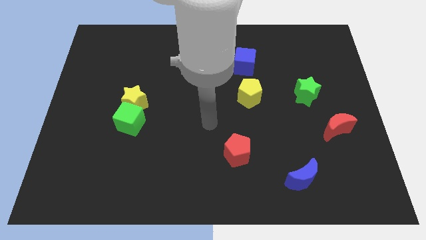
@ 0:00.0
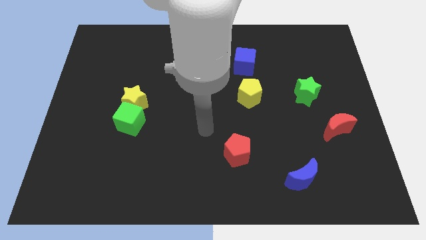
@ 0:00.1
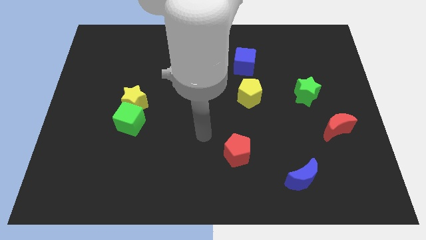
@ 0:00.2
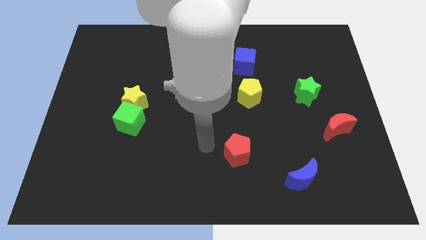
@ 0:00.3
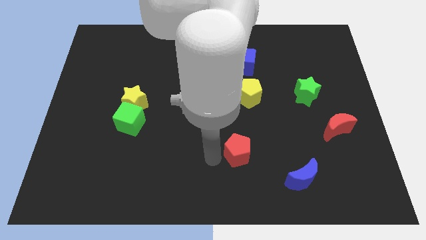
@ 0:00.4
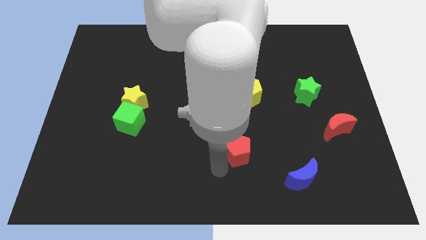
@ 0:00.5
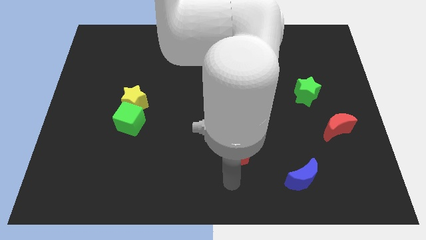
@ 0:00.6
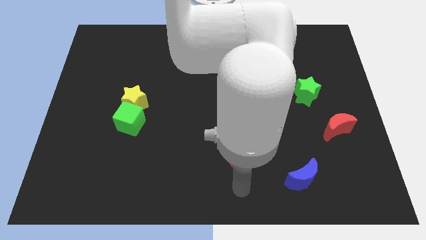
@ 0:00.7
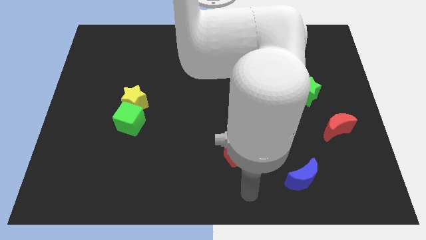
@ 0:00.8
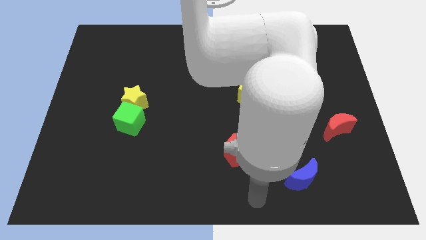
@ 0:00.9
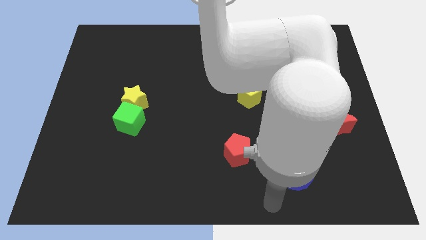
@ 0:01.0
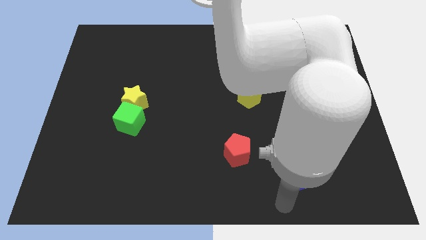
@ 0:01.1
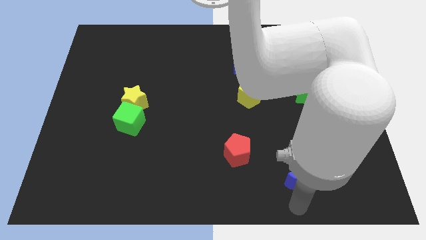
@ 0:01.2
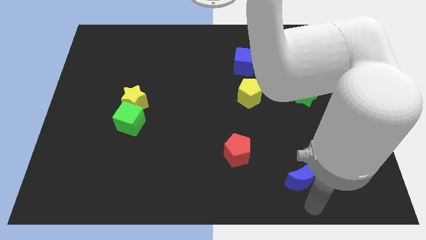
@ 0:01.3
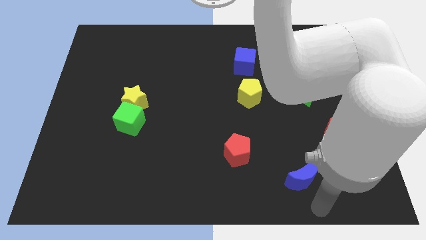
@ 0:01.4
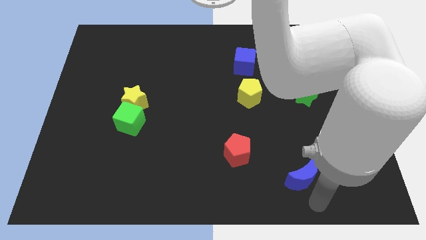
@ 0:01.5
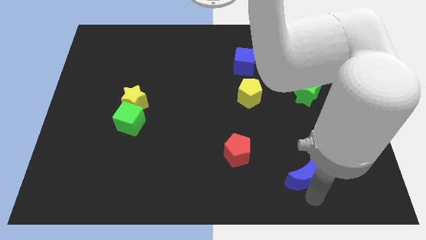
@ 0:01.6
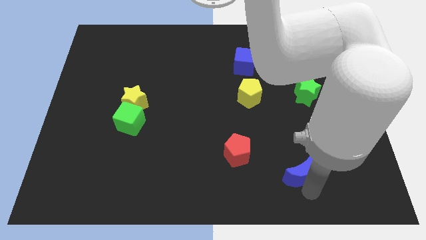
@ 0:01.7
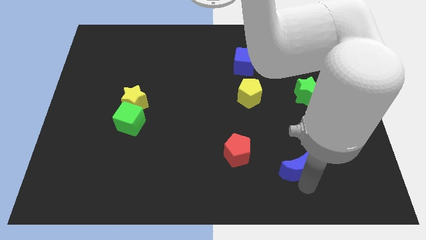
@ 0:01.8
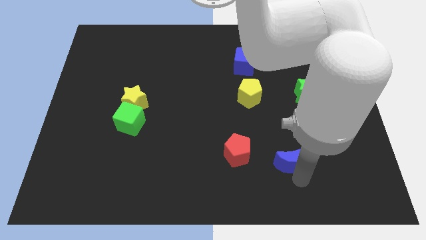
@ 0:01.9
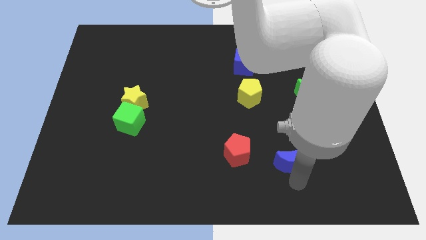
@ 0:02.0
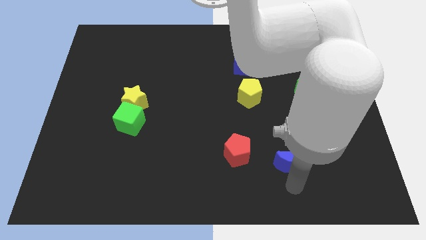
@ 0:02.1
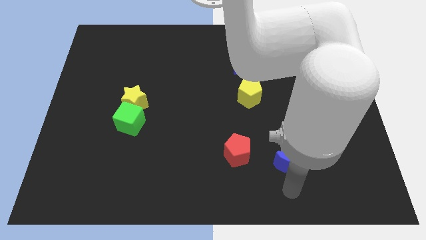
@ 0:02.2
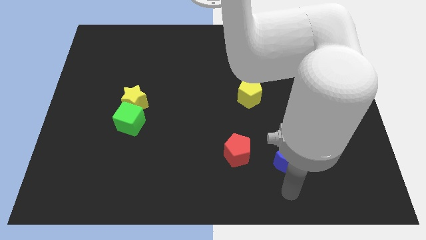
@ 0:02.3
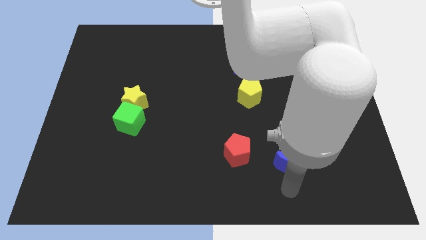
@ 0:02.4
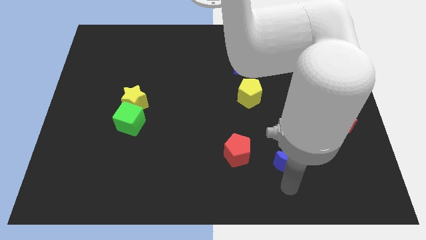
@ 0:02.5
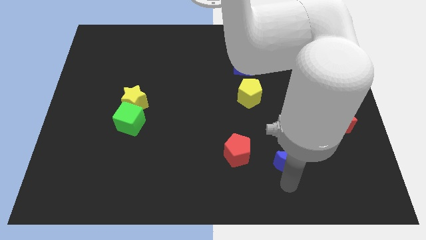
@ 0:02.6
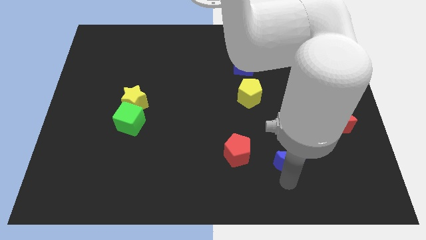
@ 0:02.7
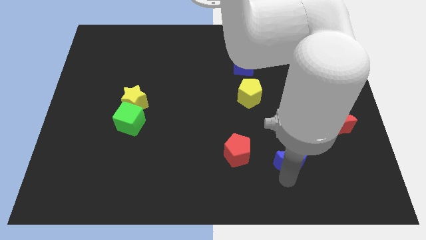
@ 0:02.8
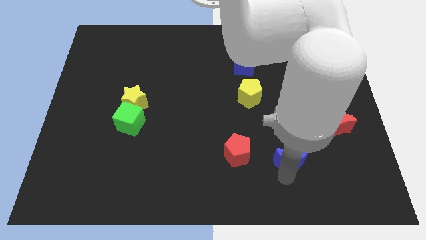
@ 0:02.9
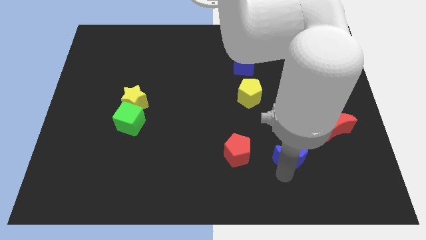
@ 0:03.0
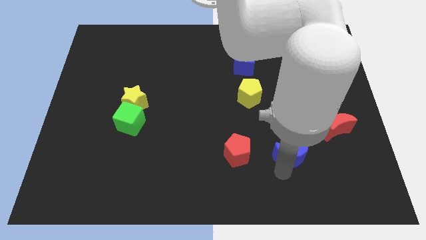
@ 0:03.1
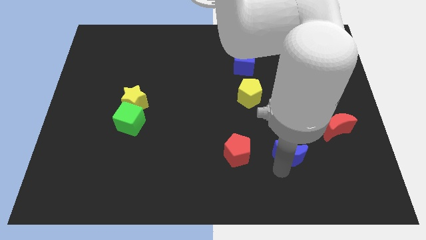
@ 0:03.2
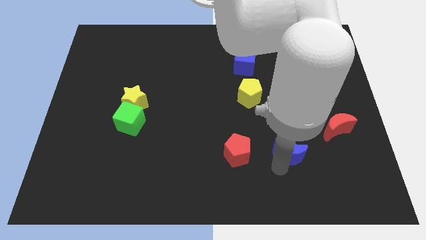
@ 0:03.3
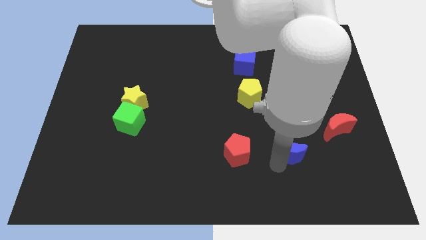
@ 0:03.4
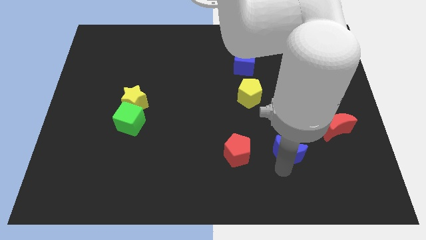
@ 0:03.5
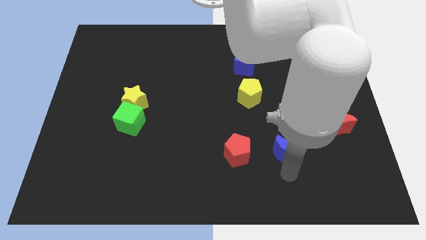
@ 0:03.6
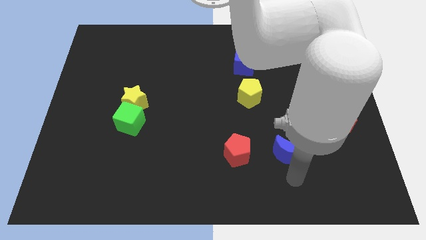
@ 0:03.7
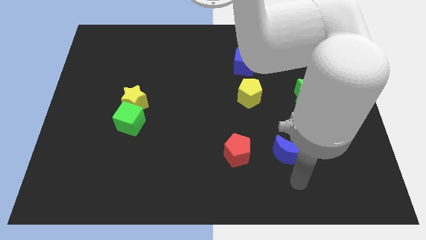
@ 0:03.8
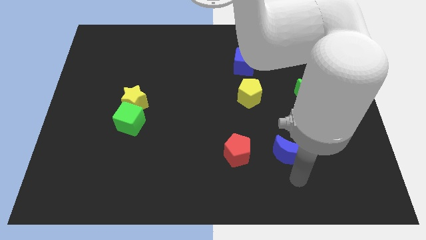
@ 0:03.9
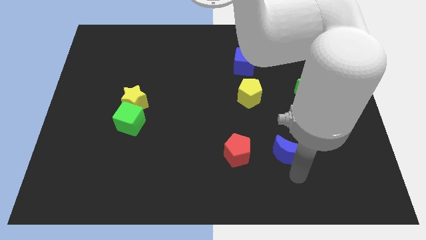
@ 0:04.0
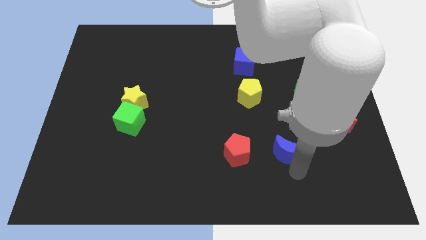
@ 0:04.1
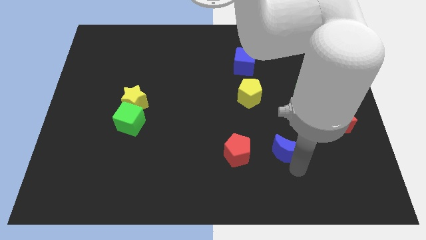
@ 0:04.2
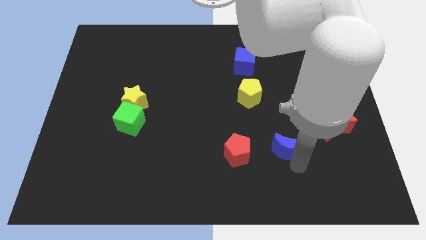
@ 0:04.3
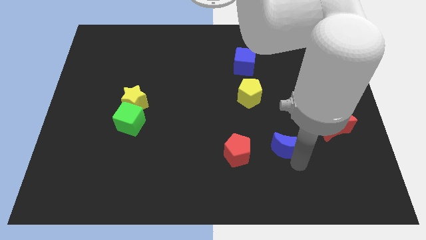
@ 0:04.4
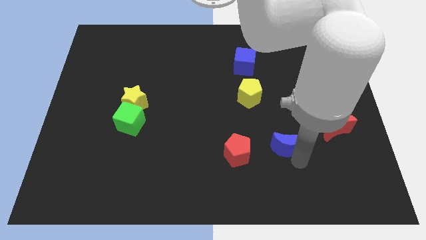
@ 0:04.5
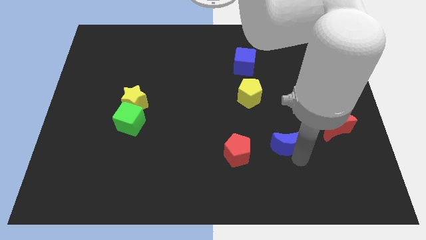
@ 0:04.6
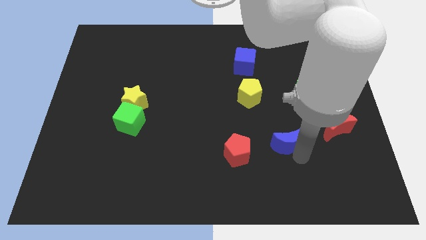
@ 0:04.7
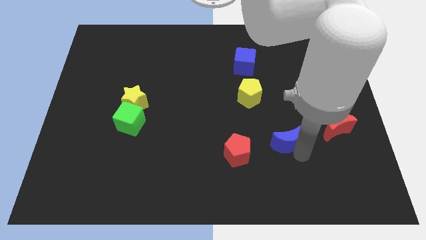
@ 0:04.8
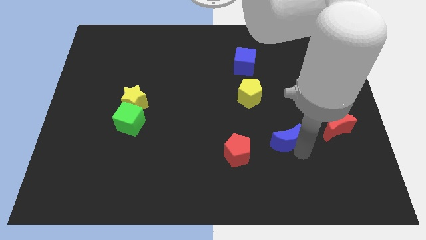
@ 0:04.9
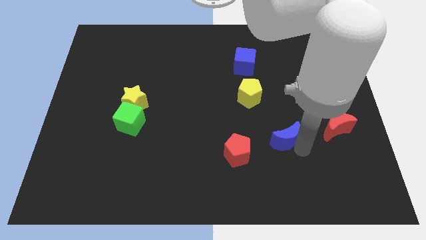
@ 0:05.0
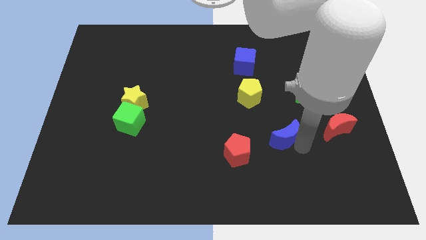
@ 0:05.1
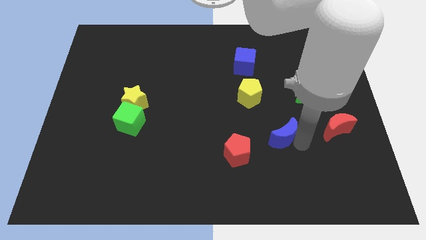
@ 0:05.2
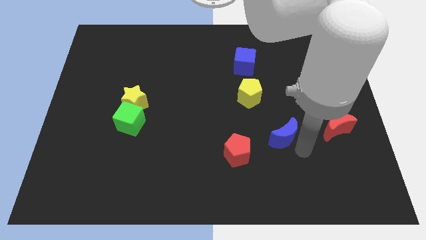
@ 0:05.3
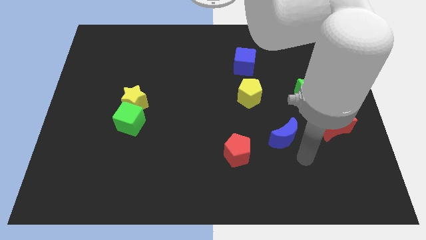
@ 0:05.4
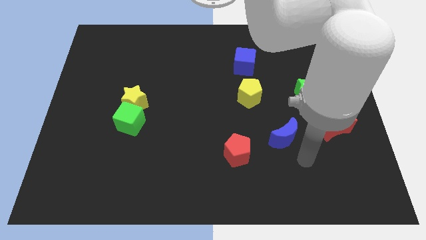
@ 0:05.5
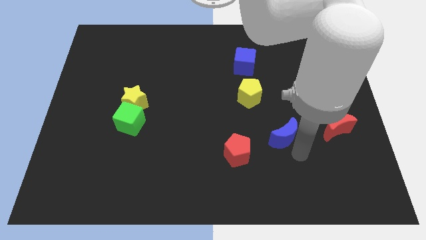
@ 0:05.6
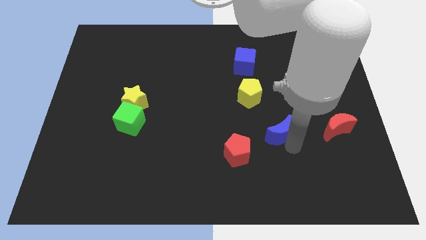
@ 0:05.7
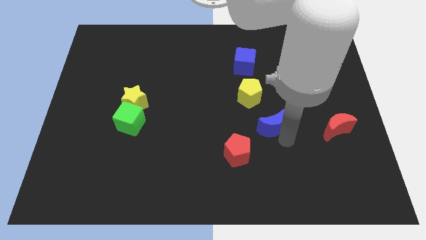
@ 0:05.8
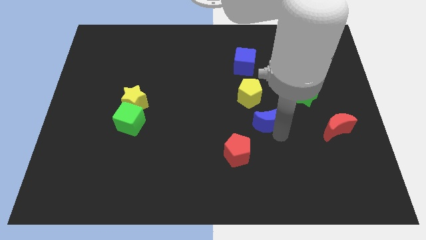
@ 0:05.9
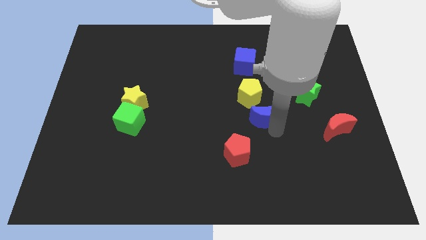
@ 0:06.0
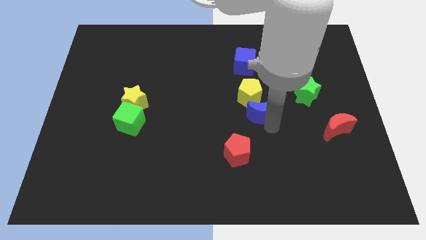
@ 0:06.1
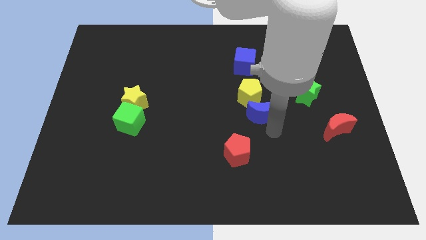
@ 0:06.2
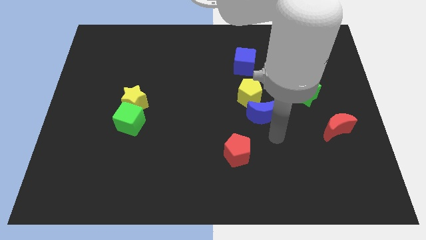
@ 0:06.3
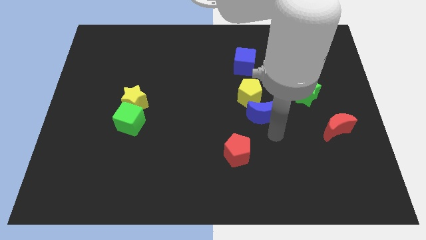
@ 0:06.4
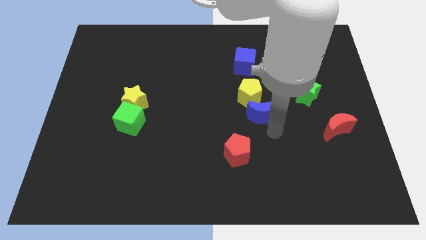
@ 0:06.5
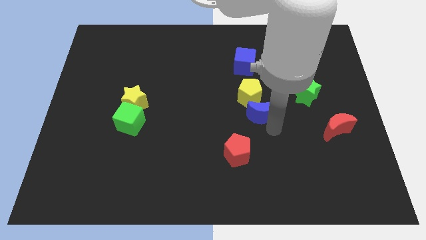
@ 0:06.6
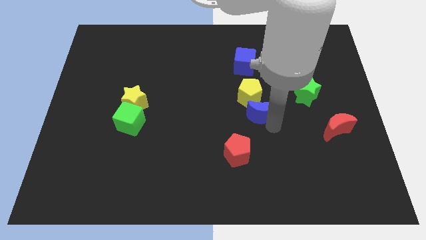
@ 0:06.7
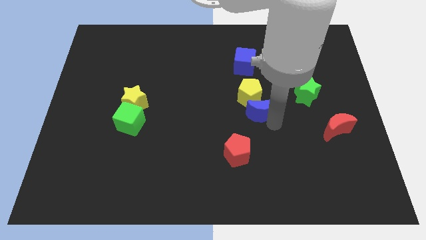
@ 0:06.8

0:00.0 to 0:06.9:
slide the blue moon close to the yellow pentagon
